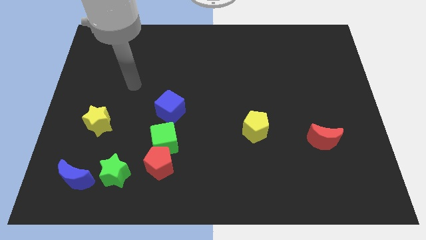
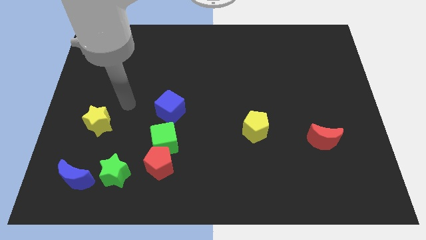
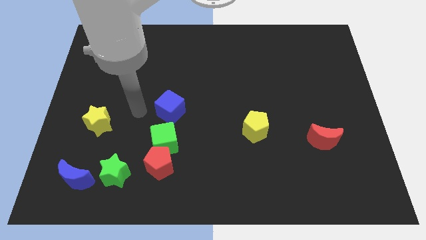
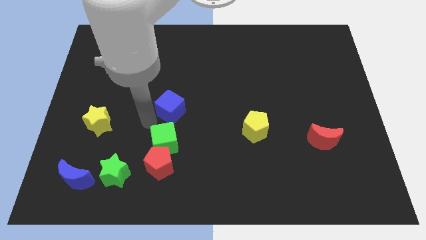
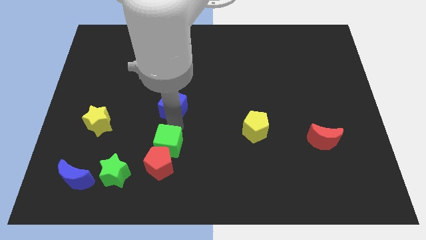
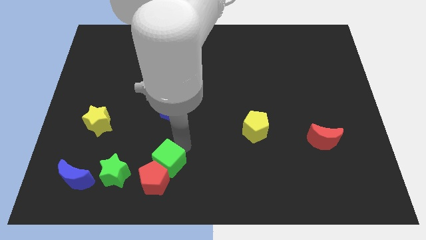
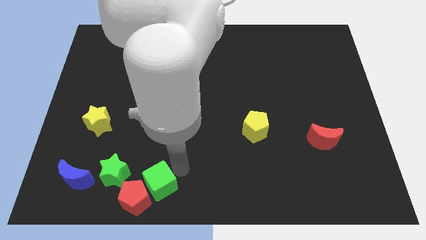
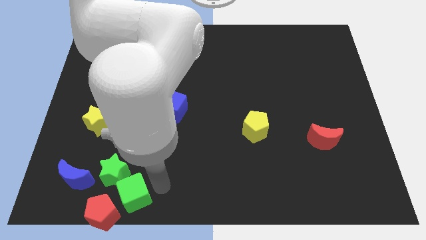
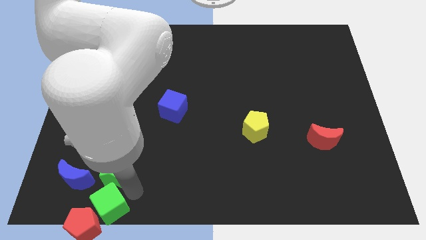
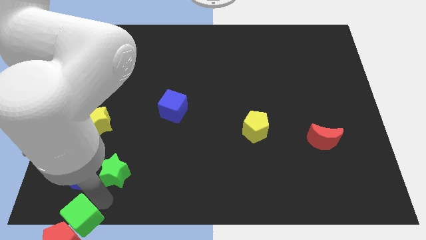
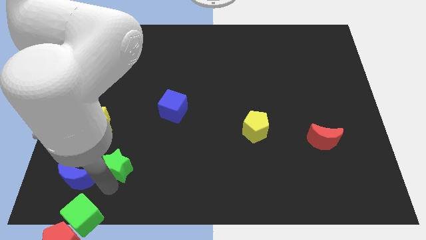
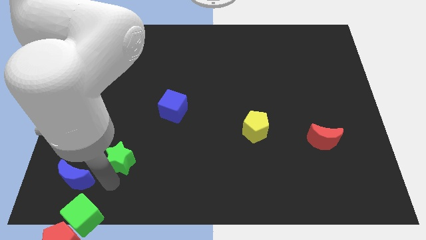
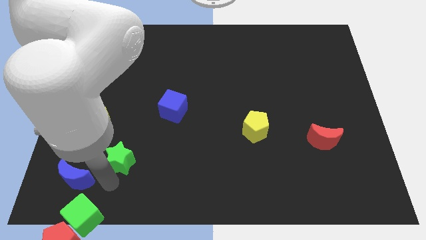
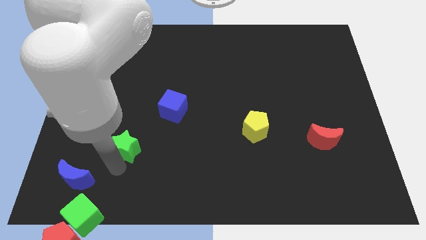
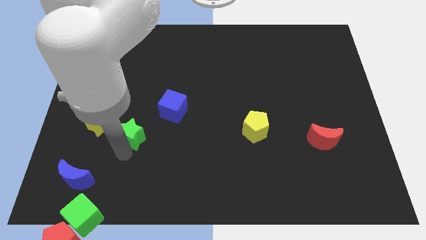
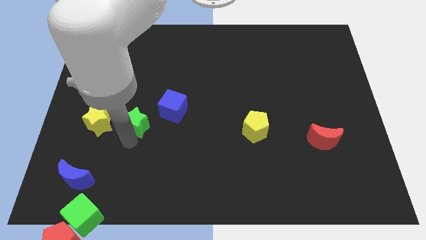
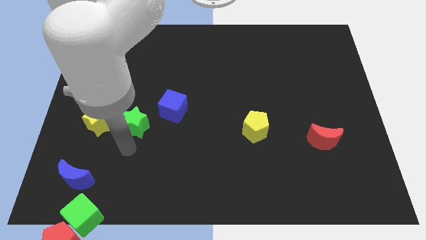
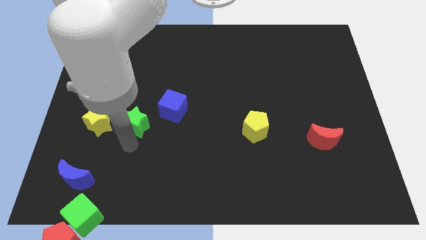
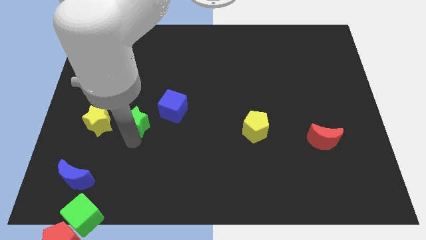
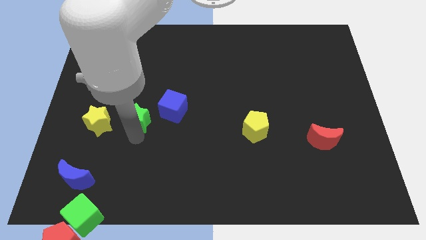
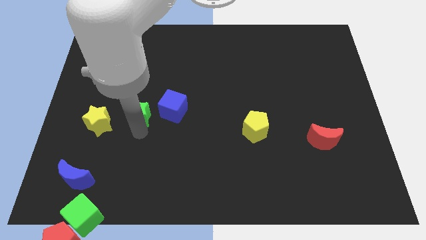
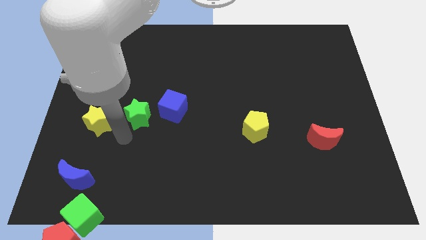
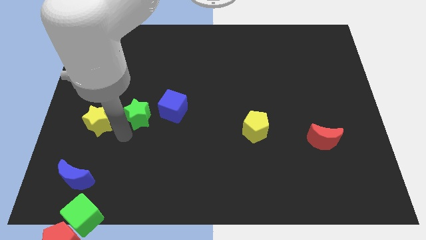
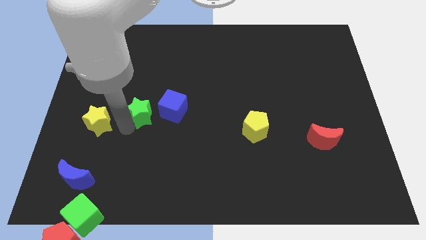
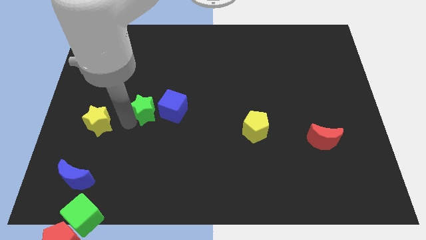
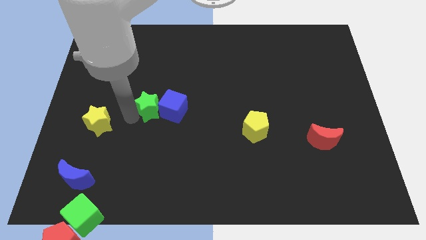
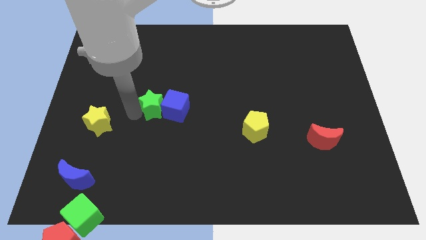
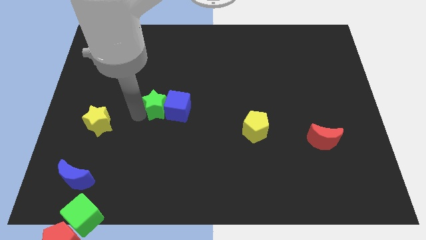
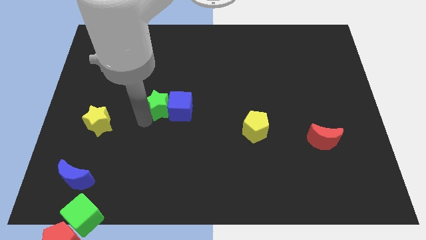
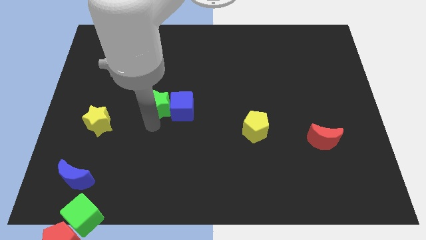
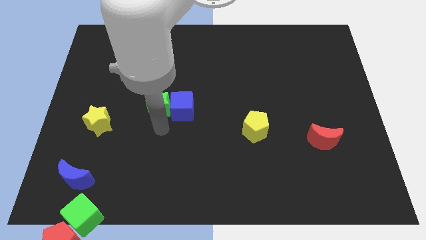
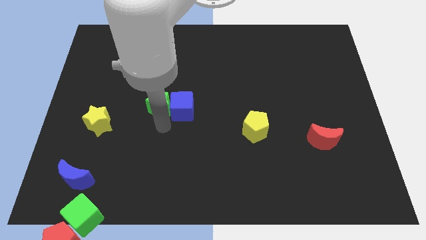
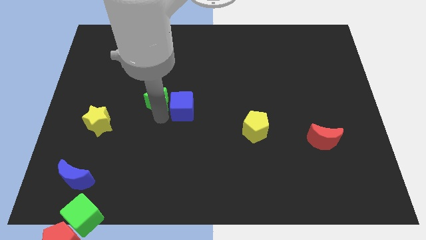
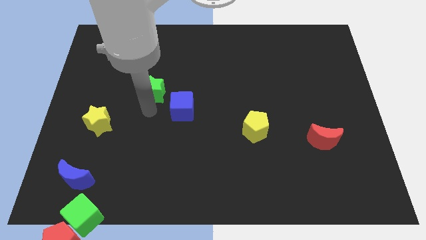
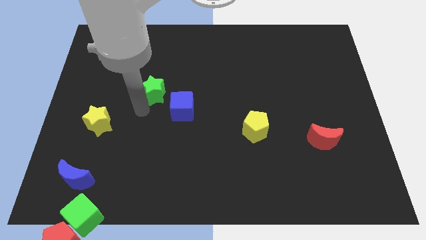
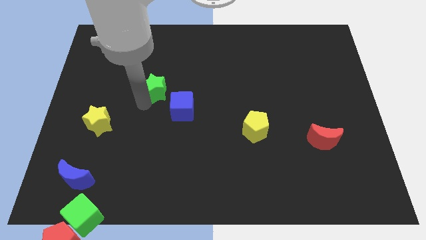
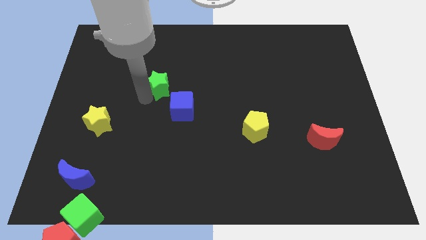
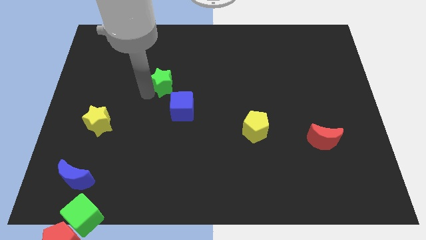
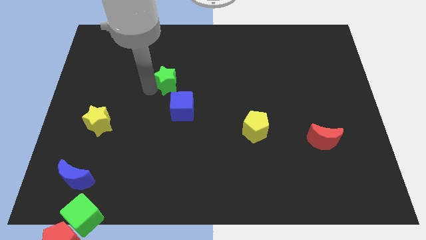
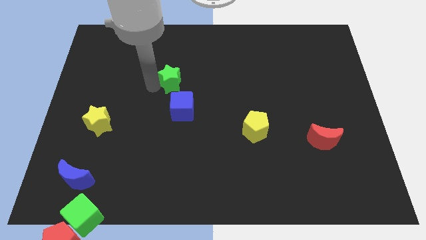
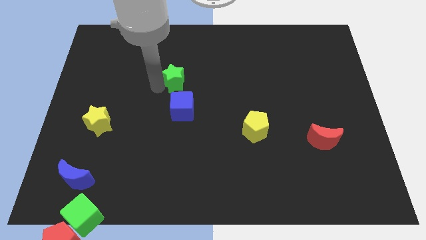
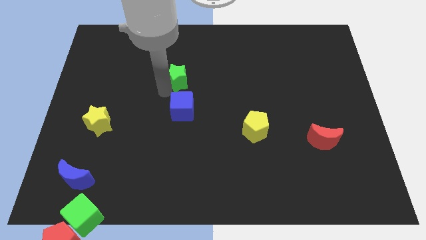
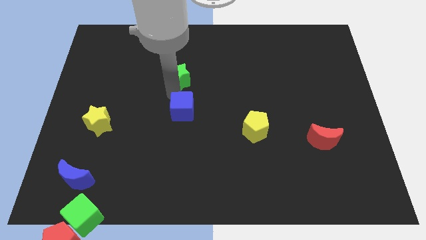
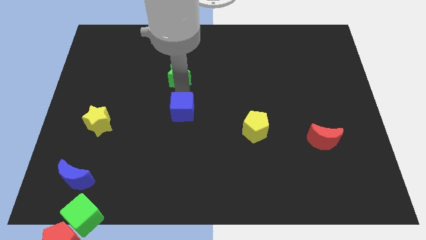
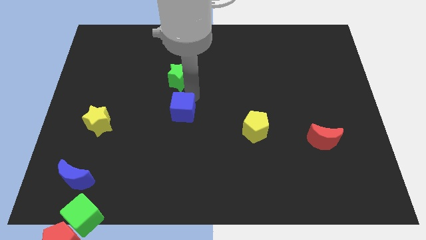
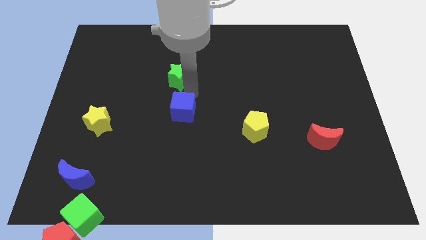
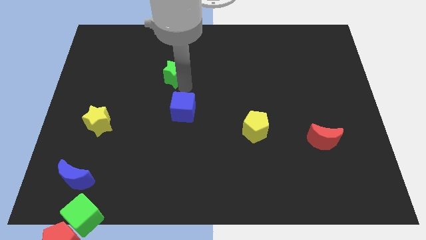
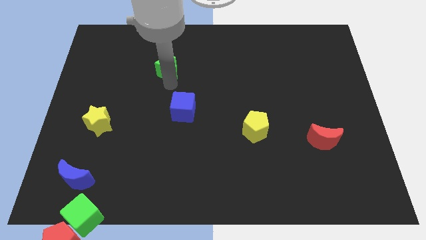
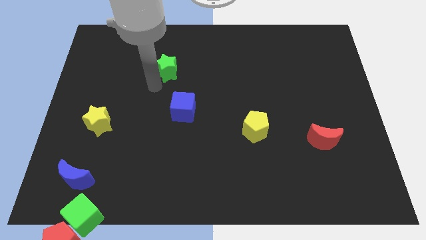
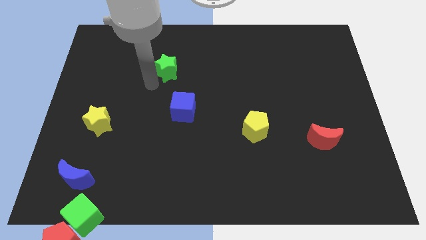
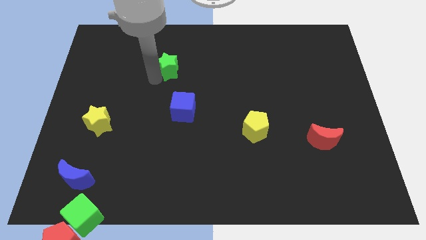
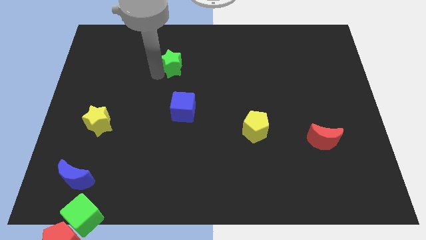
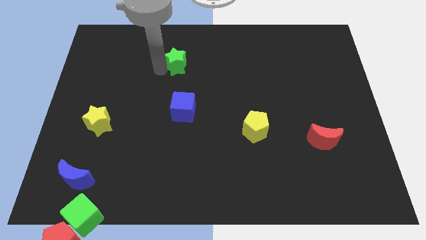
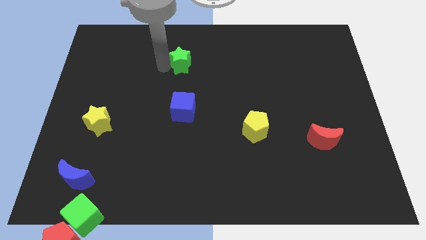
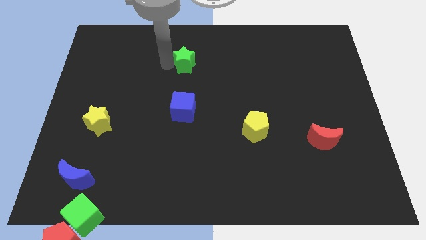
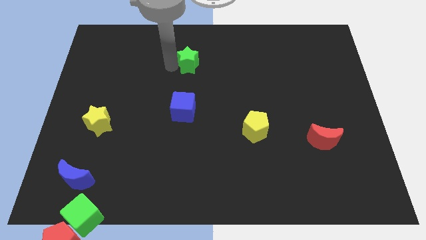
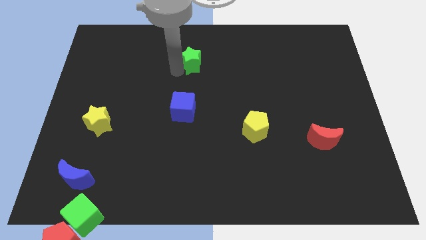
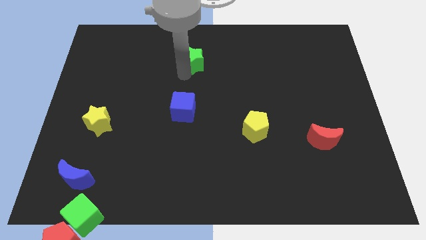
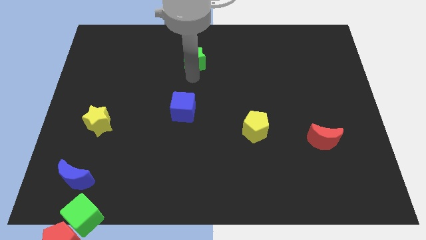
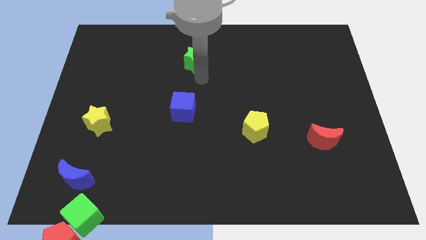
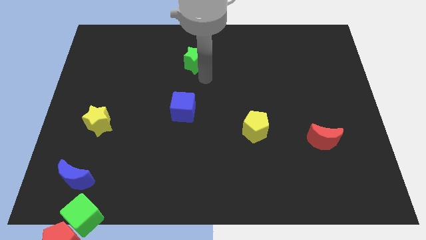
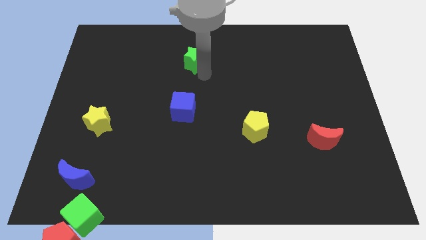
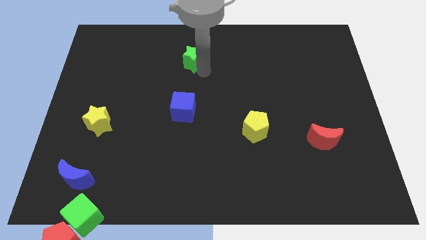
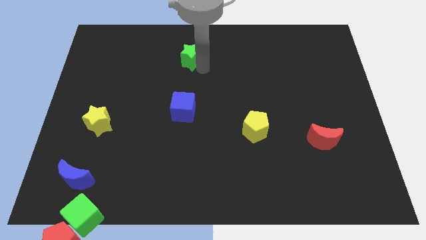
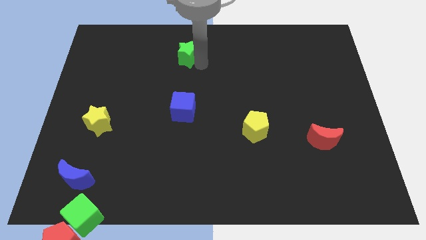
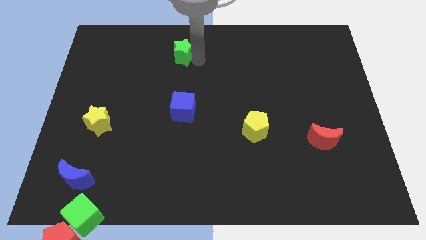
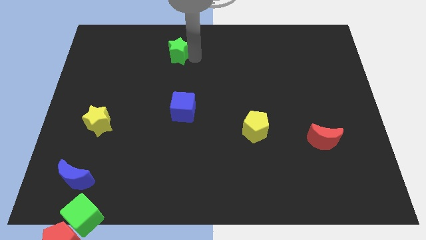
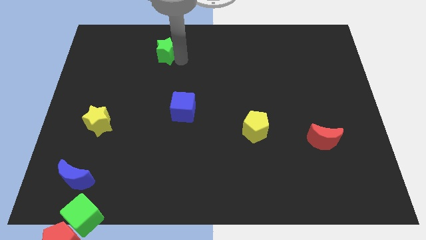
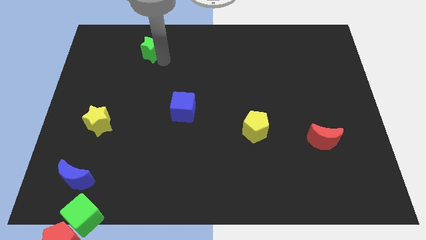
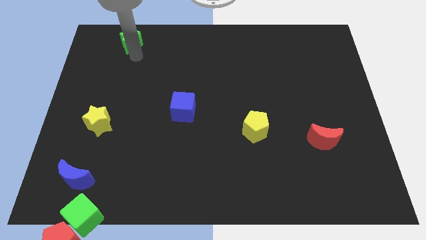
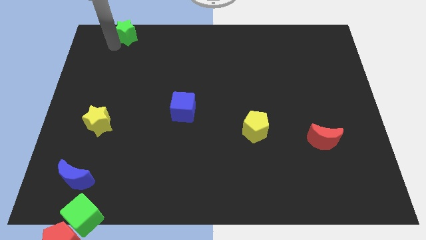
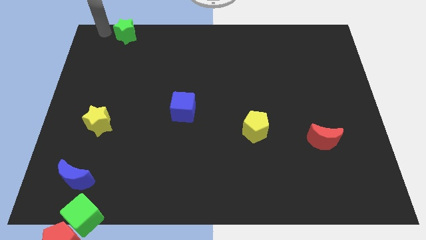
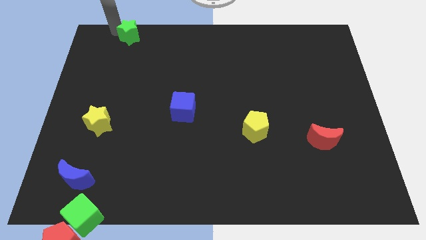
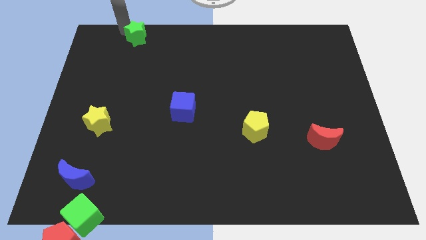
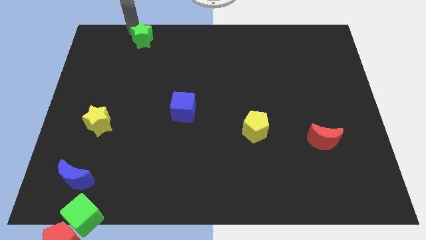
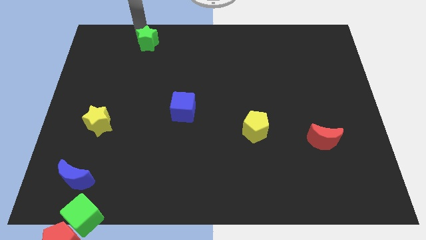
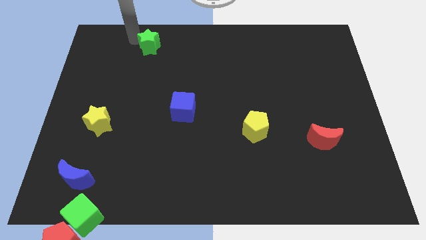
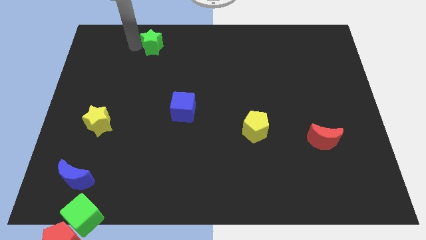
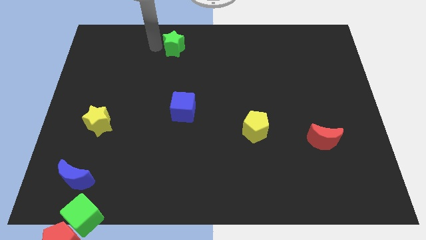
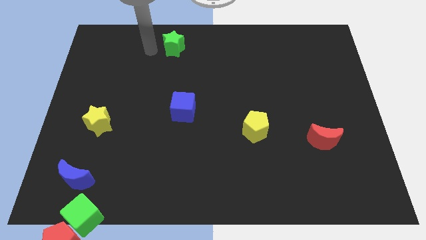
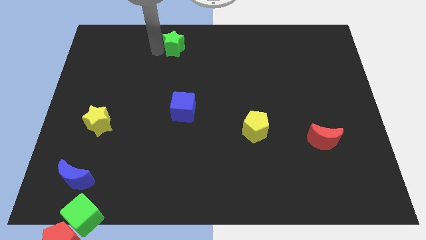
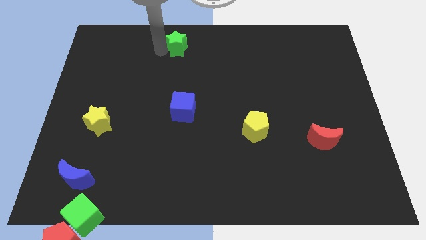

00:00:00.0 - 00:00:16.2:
slide the green star to the top
